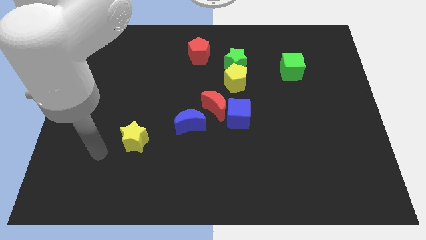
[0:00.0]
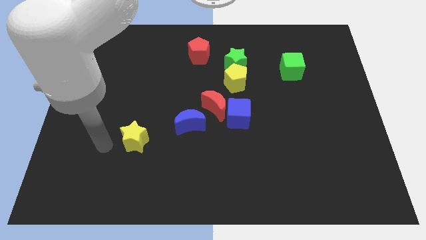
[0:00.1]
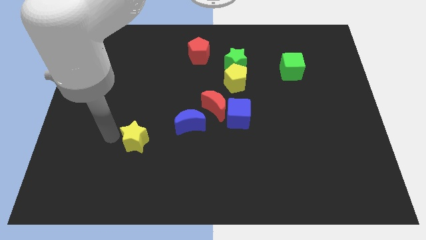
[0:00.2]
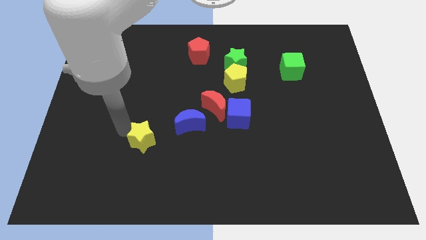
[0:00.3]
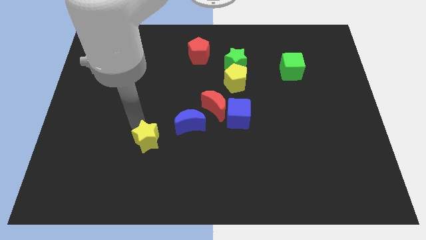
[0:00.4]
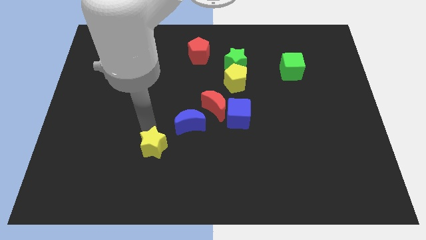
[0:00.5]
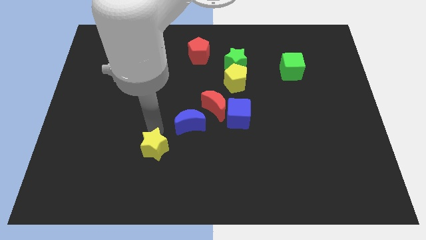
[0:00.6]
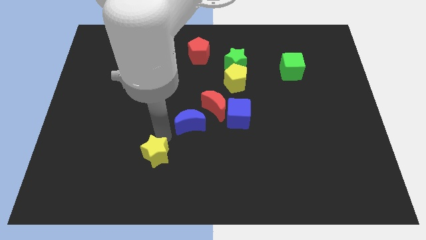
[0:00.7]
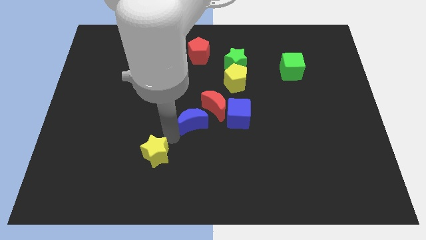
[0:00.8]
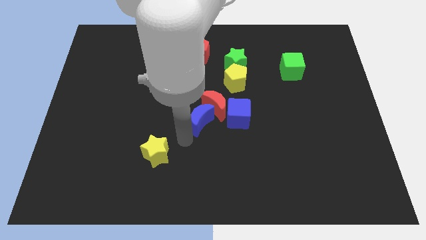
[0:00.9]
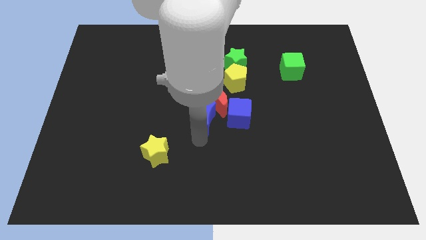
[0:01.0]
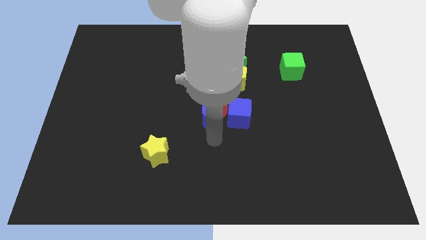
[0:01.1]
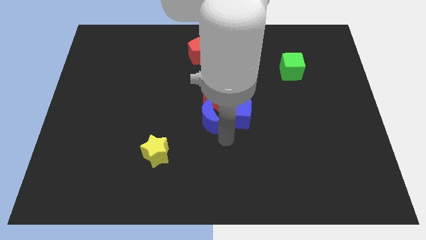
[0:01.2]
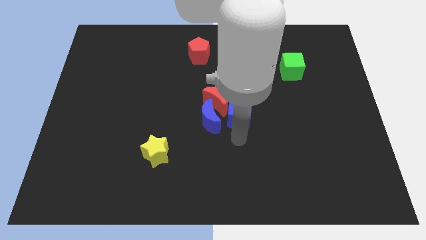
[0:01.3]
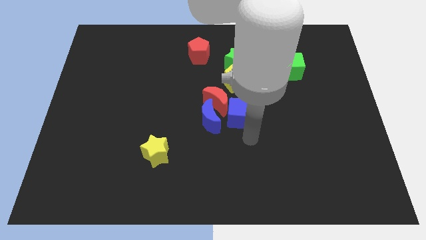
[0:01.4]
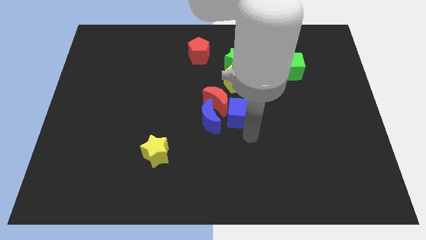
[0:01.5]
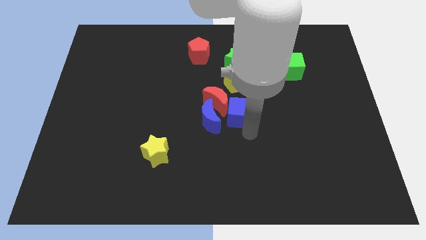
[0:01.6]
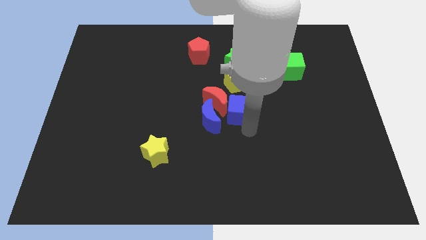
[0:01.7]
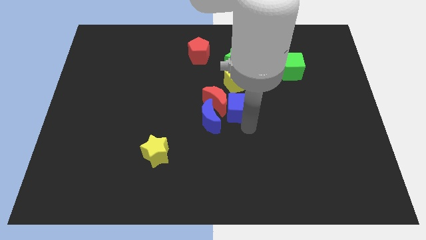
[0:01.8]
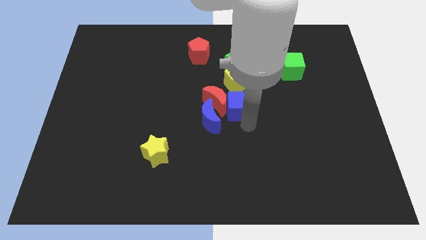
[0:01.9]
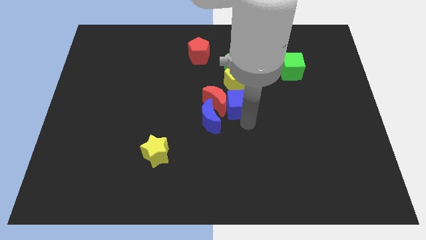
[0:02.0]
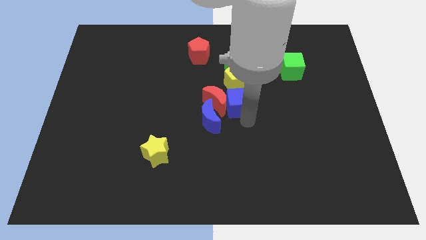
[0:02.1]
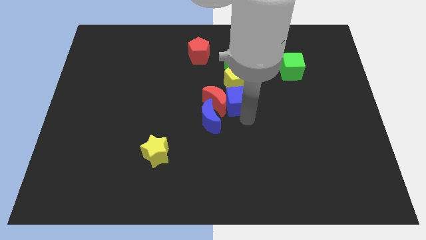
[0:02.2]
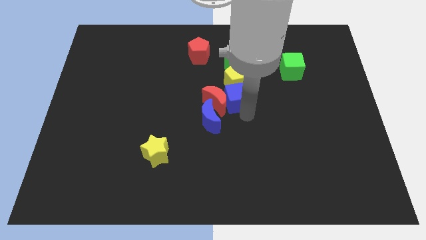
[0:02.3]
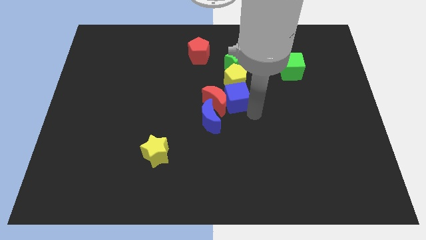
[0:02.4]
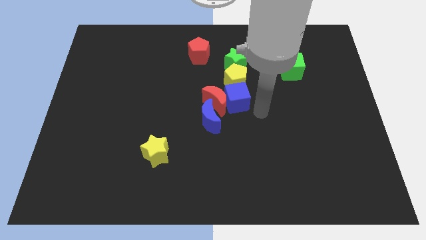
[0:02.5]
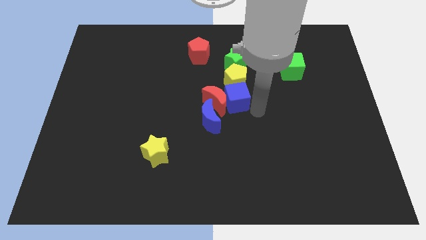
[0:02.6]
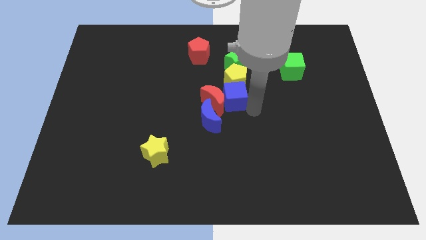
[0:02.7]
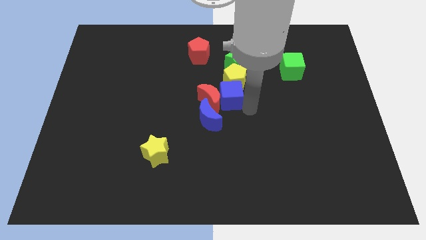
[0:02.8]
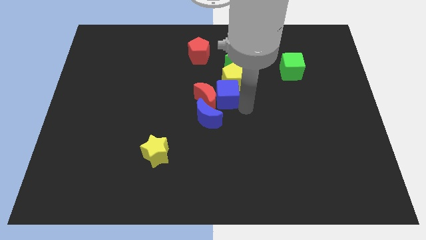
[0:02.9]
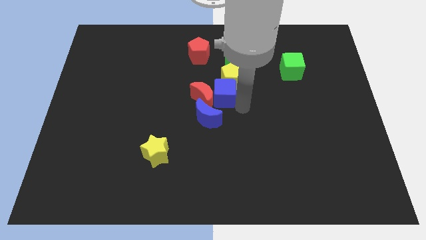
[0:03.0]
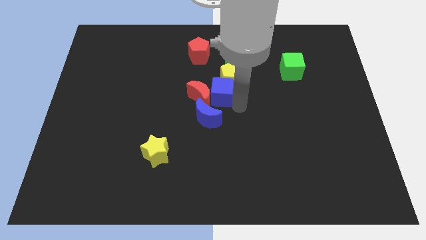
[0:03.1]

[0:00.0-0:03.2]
push the blue cube diagonally up and left somewhat

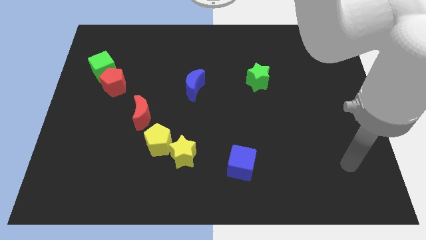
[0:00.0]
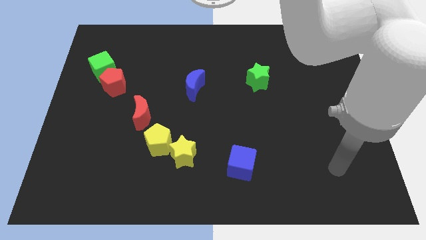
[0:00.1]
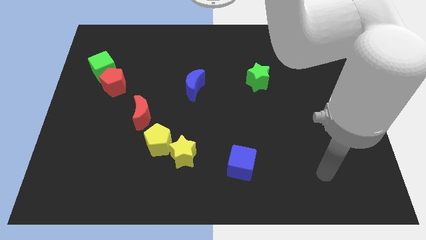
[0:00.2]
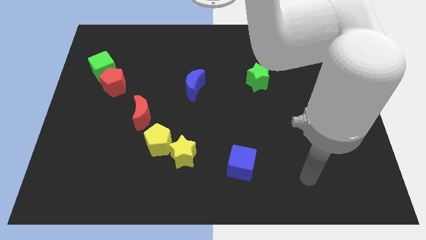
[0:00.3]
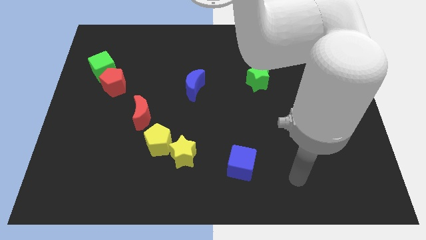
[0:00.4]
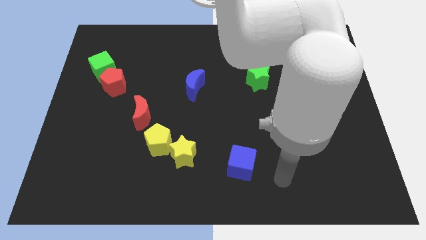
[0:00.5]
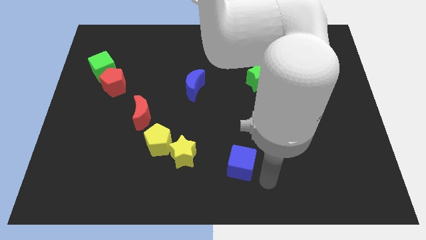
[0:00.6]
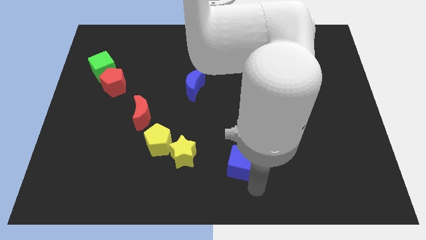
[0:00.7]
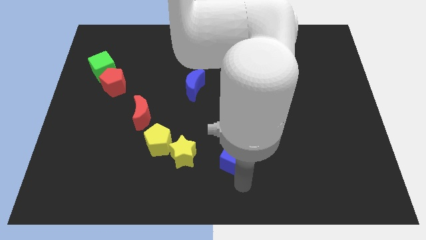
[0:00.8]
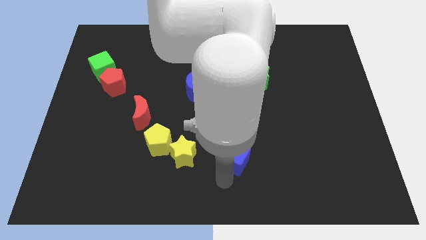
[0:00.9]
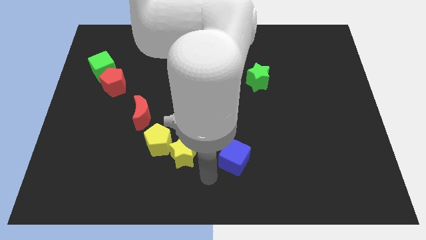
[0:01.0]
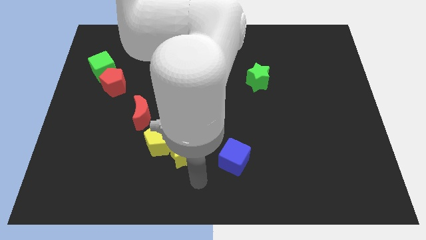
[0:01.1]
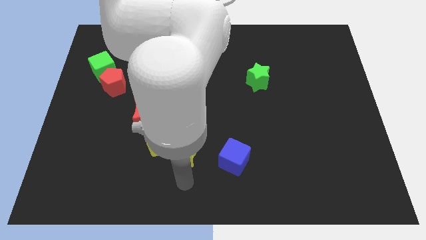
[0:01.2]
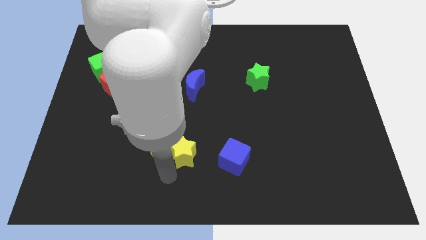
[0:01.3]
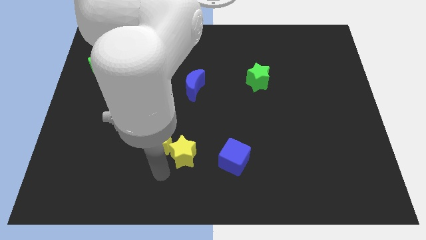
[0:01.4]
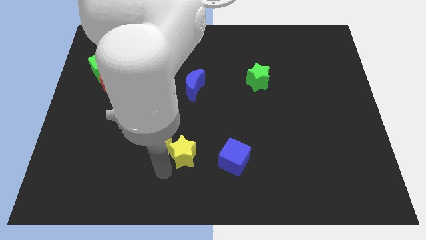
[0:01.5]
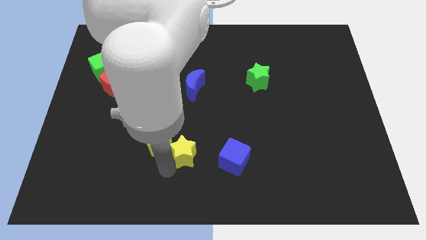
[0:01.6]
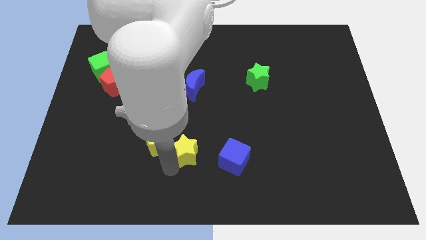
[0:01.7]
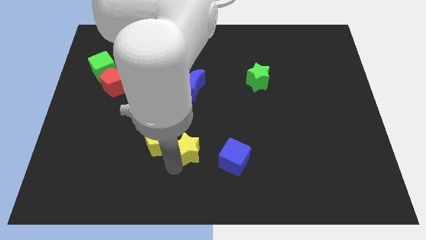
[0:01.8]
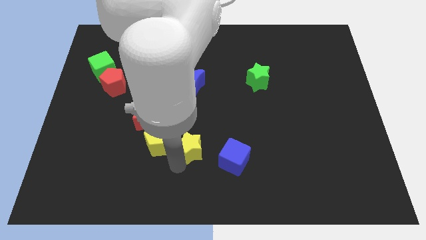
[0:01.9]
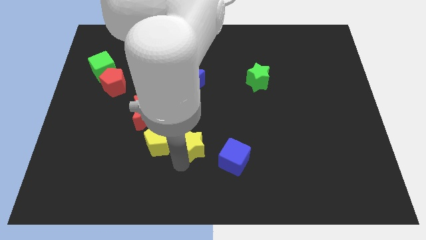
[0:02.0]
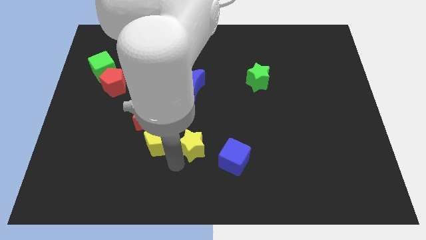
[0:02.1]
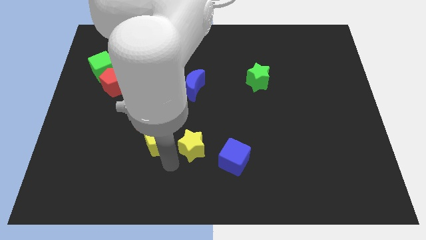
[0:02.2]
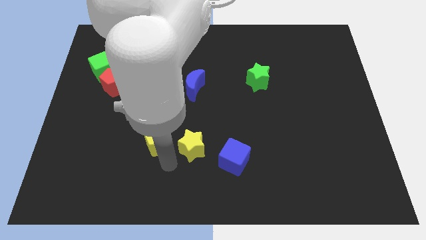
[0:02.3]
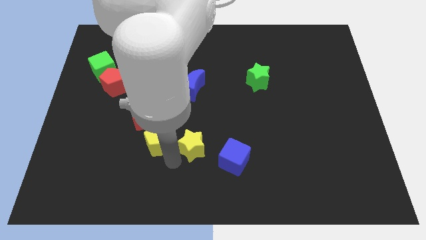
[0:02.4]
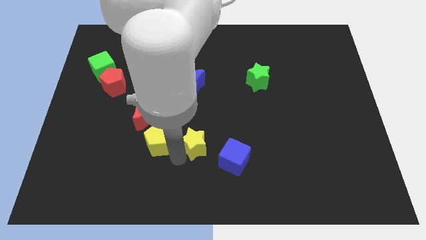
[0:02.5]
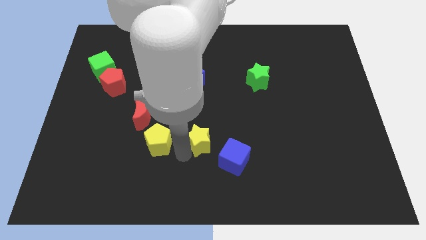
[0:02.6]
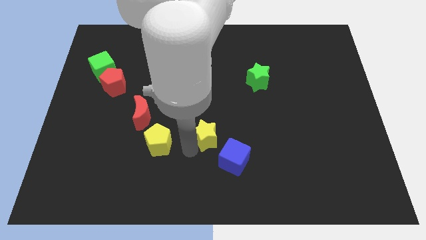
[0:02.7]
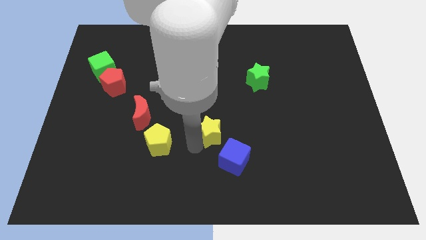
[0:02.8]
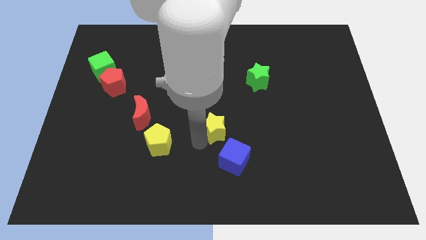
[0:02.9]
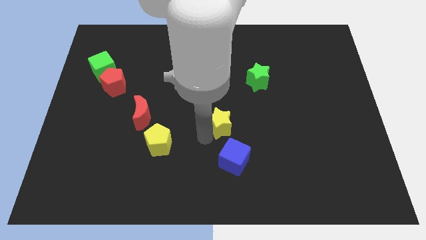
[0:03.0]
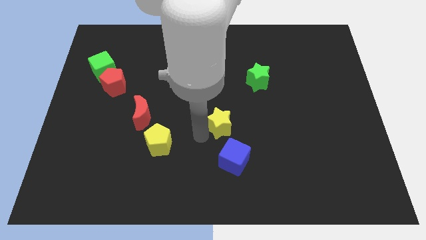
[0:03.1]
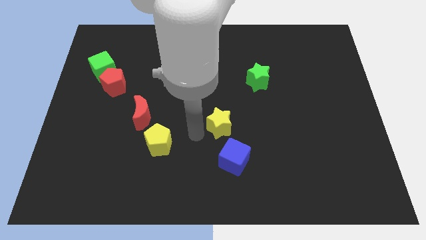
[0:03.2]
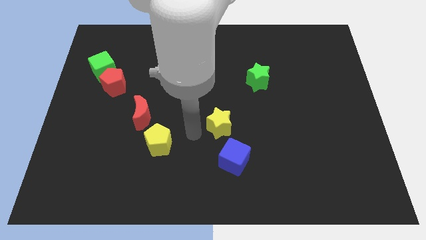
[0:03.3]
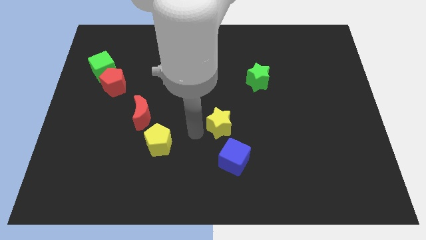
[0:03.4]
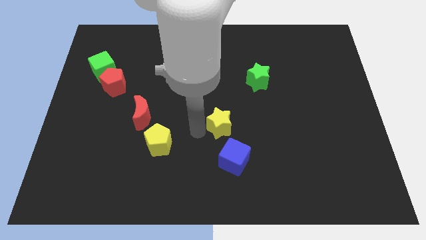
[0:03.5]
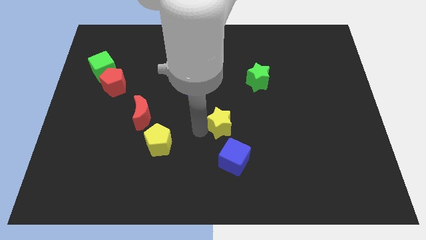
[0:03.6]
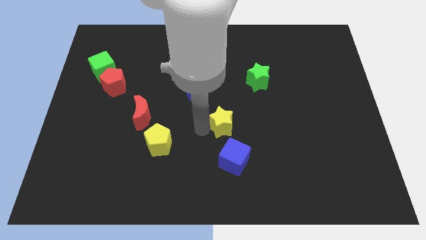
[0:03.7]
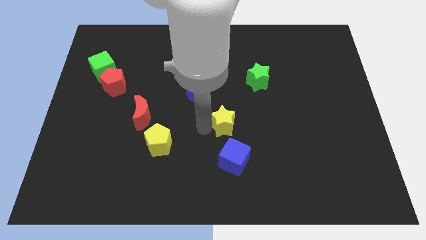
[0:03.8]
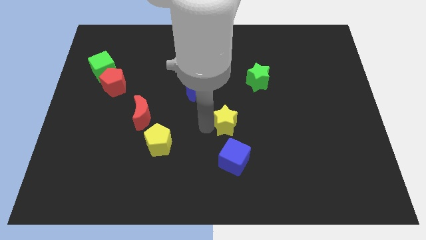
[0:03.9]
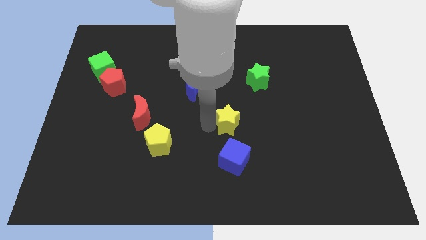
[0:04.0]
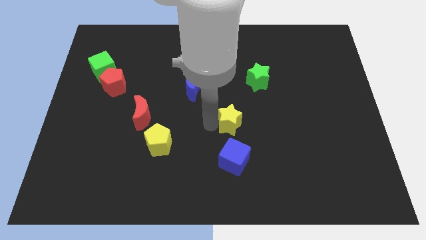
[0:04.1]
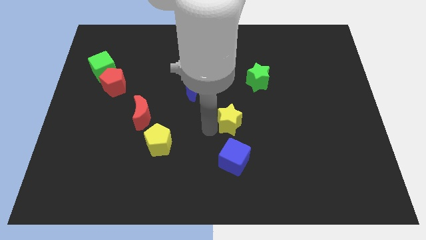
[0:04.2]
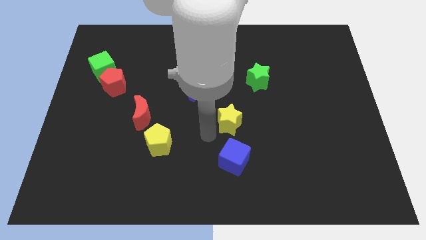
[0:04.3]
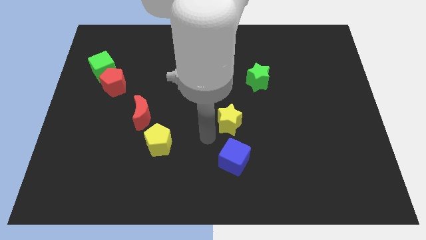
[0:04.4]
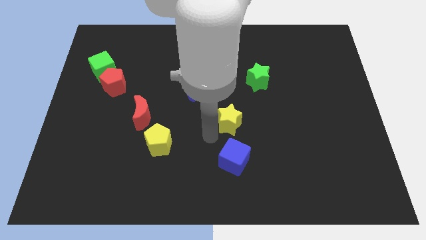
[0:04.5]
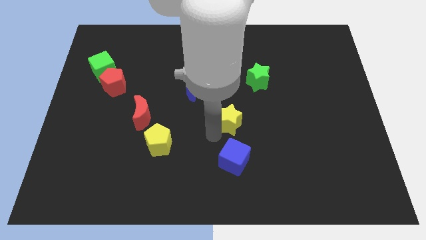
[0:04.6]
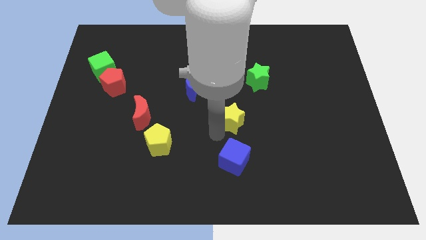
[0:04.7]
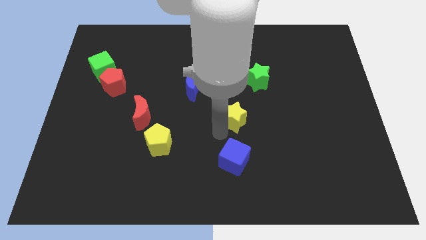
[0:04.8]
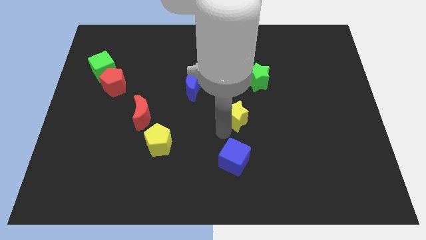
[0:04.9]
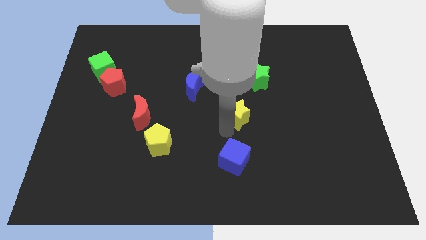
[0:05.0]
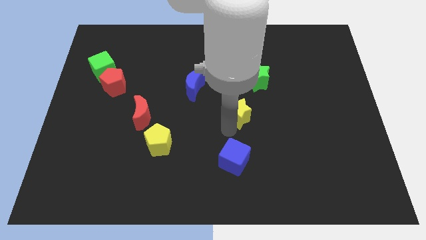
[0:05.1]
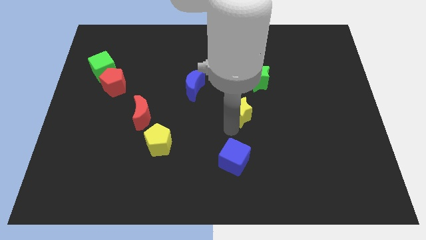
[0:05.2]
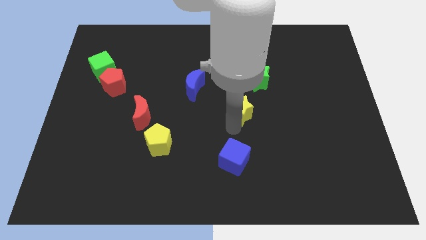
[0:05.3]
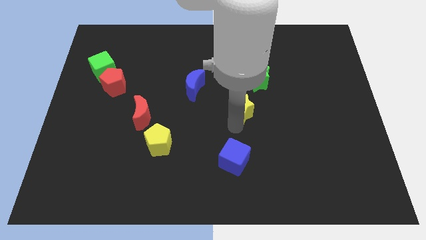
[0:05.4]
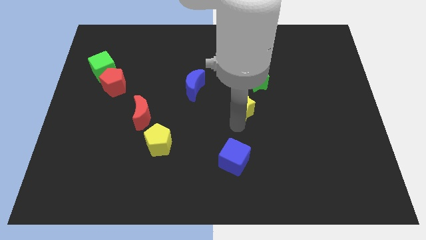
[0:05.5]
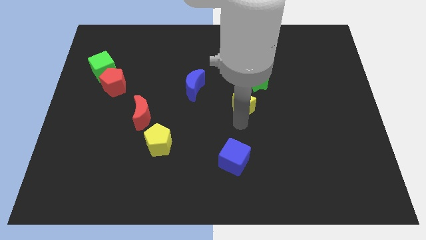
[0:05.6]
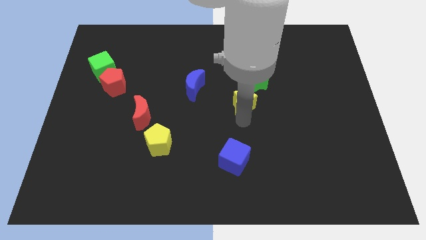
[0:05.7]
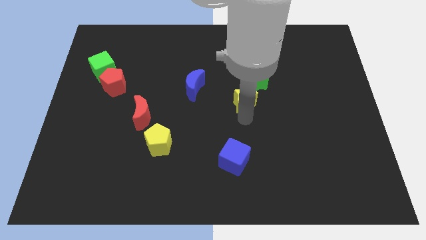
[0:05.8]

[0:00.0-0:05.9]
push the yellow star upwards and right
